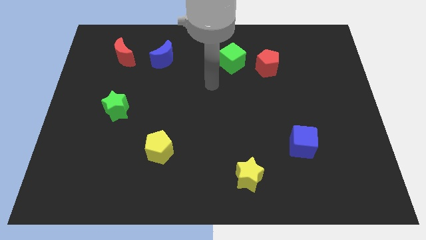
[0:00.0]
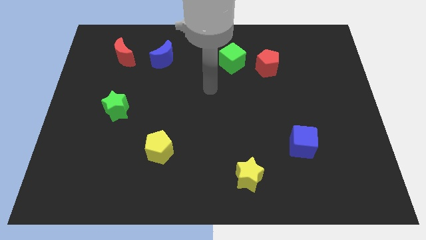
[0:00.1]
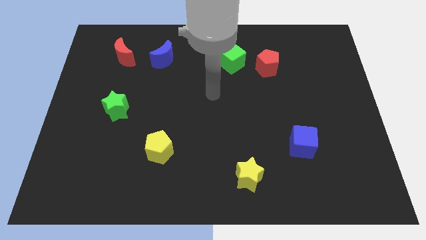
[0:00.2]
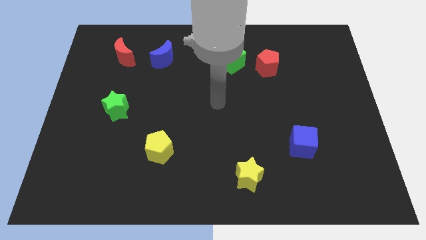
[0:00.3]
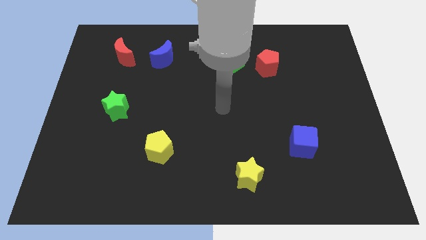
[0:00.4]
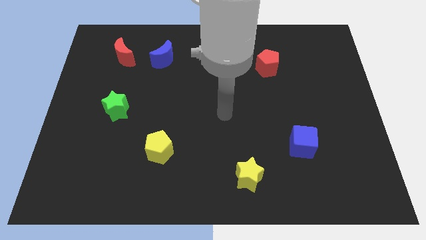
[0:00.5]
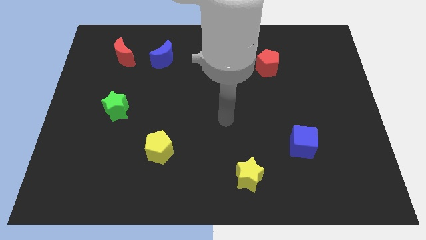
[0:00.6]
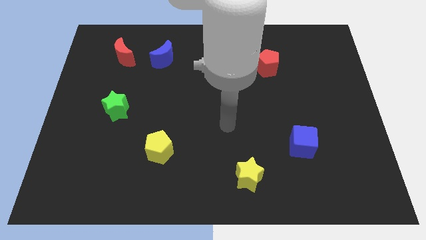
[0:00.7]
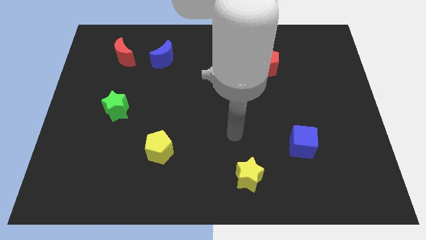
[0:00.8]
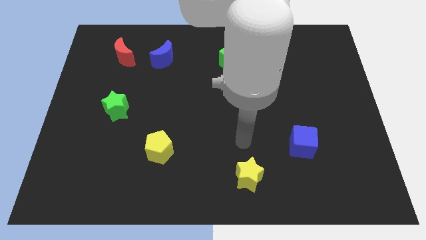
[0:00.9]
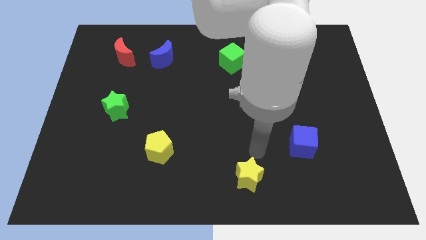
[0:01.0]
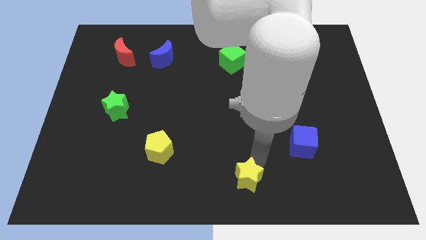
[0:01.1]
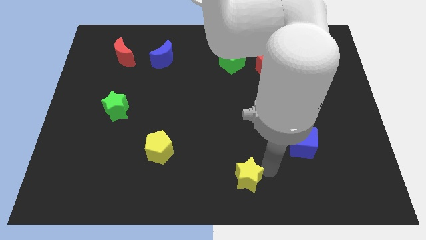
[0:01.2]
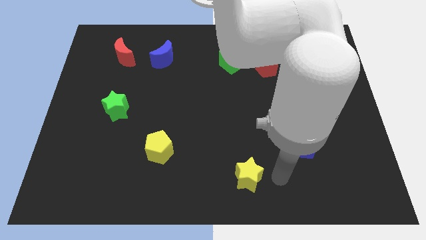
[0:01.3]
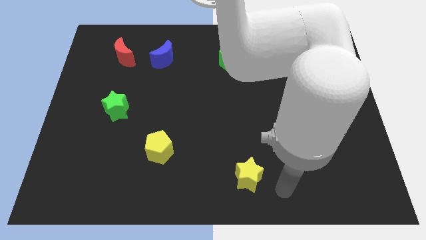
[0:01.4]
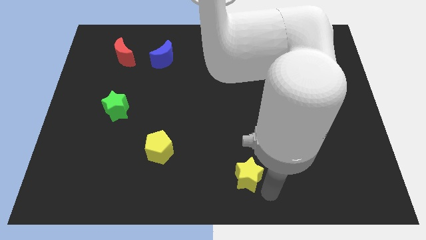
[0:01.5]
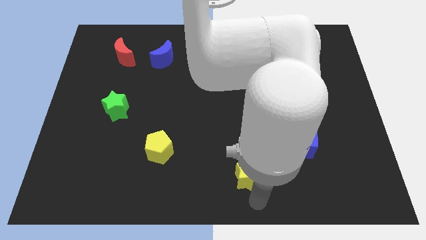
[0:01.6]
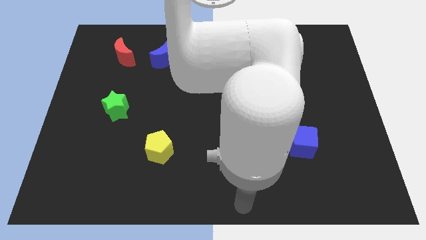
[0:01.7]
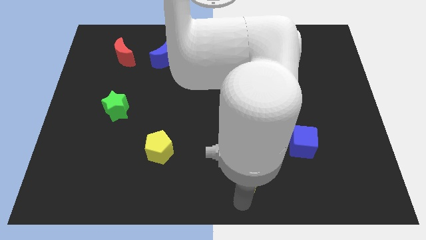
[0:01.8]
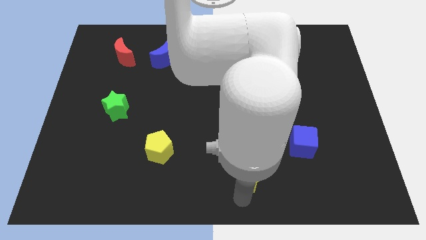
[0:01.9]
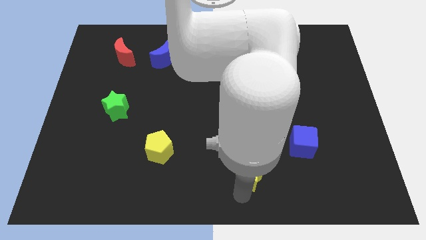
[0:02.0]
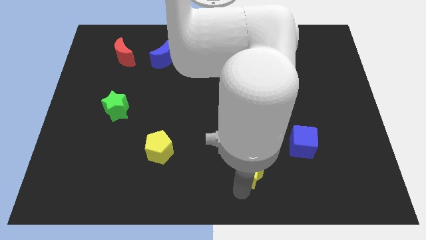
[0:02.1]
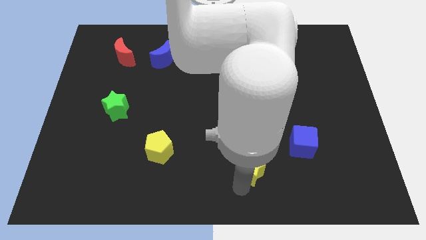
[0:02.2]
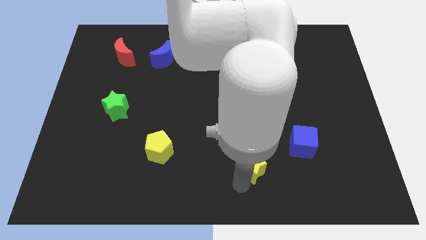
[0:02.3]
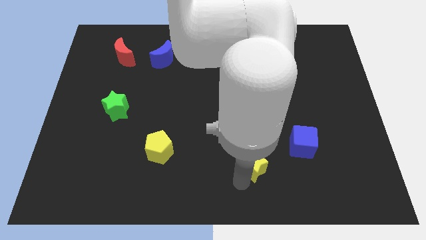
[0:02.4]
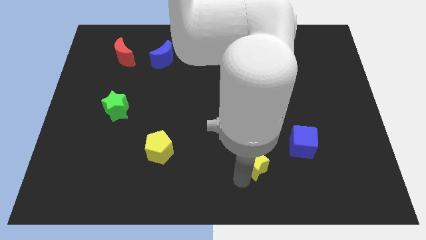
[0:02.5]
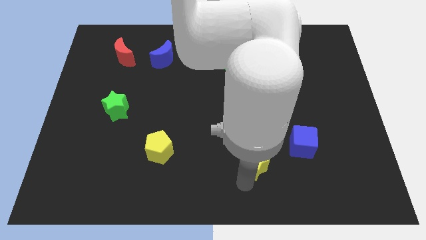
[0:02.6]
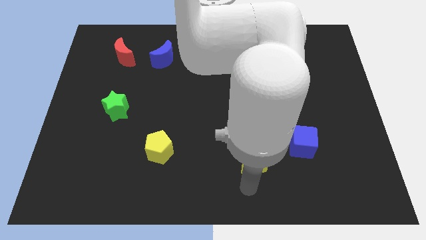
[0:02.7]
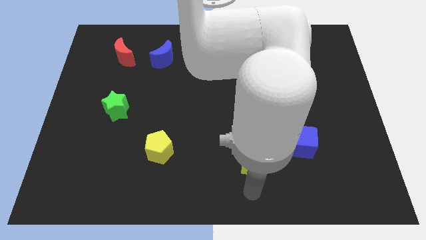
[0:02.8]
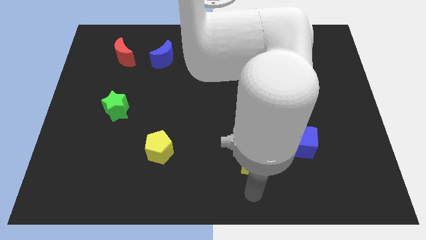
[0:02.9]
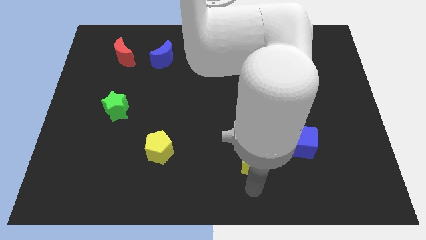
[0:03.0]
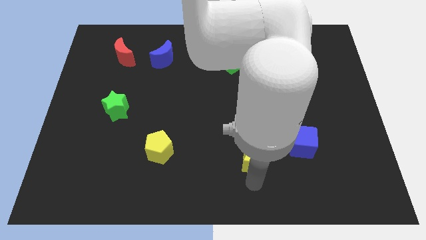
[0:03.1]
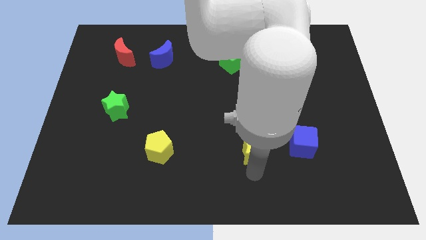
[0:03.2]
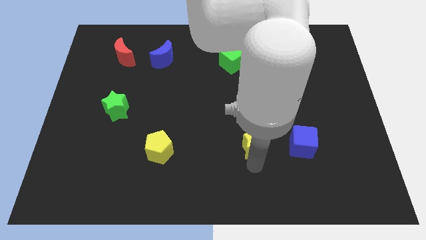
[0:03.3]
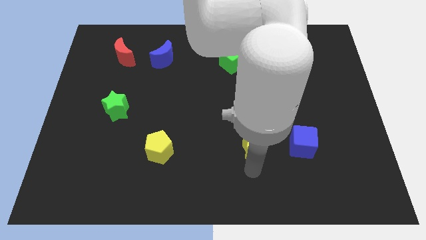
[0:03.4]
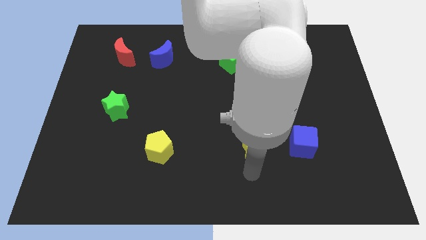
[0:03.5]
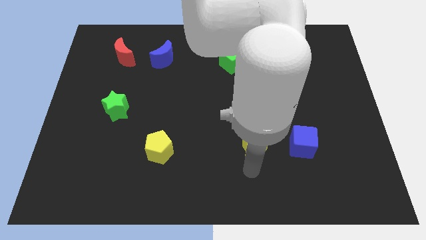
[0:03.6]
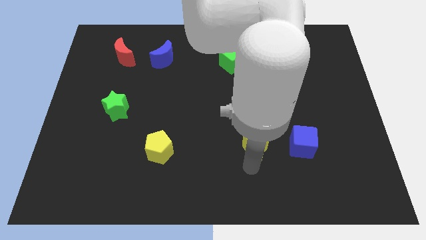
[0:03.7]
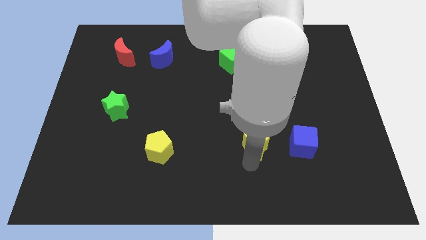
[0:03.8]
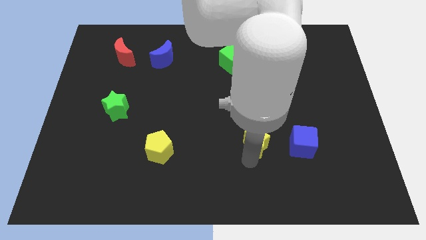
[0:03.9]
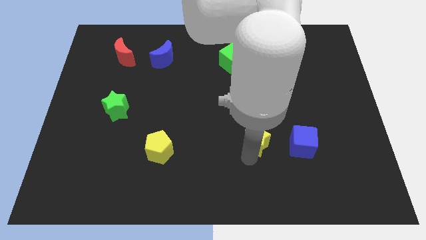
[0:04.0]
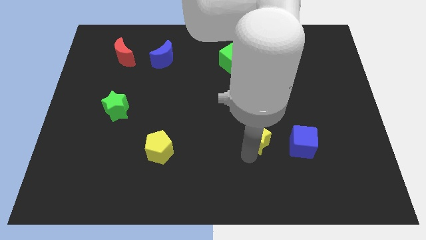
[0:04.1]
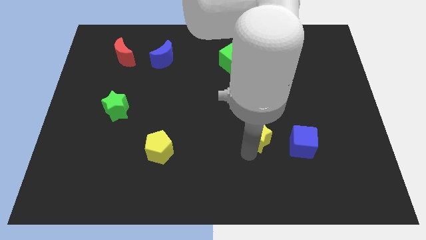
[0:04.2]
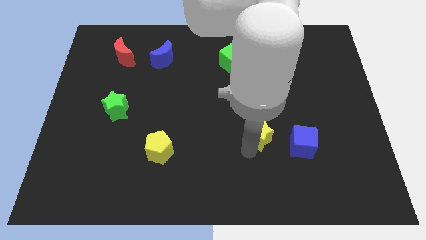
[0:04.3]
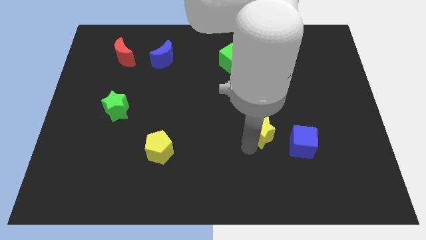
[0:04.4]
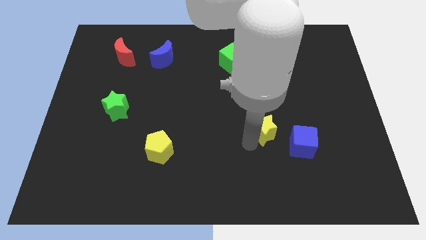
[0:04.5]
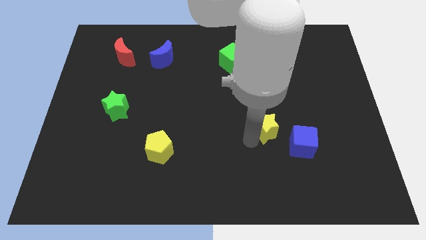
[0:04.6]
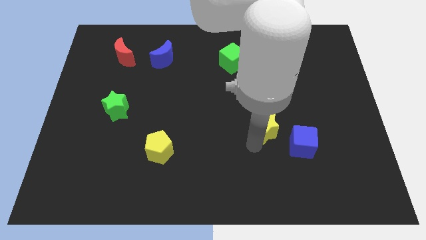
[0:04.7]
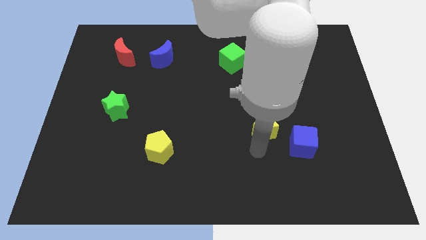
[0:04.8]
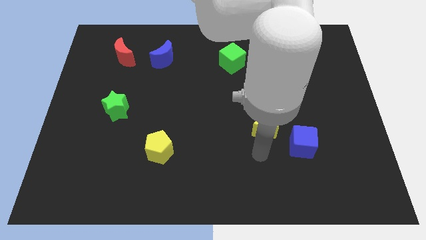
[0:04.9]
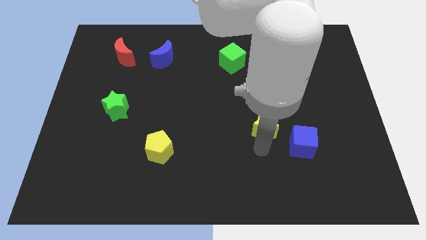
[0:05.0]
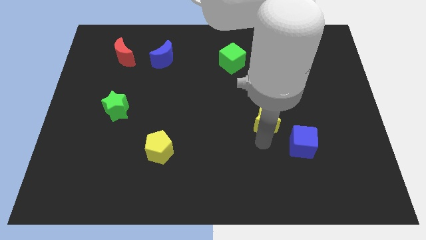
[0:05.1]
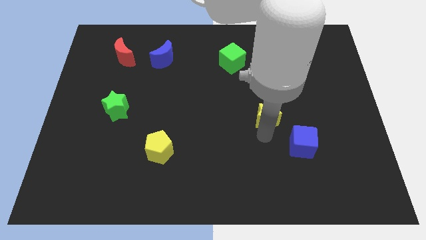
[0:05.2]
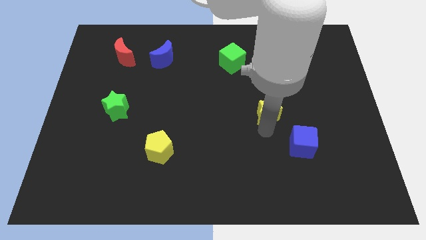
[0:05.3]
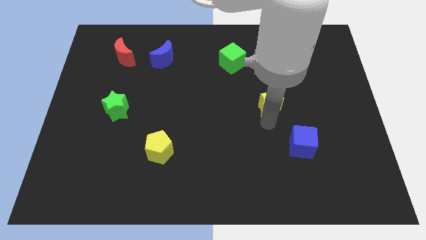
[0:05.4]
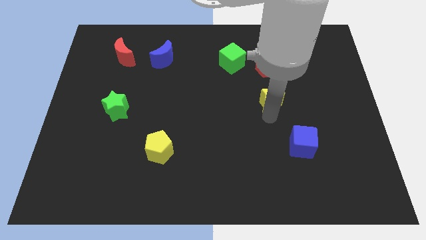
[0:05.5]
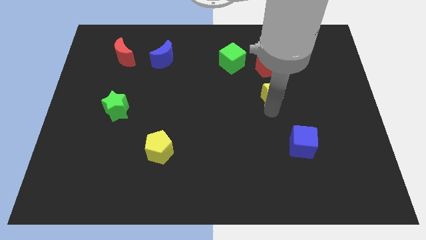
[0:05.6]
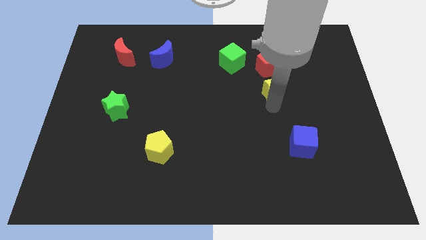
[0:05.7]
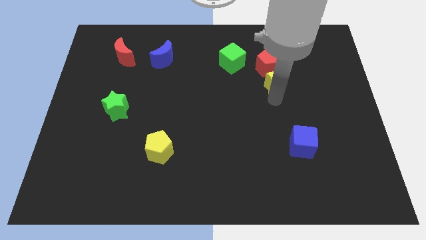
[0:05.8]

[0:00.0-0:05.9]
push the yellow star next to the red pentagon

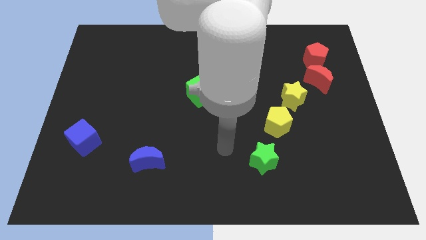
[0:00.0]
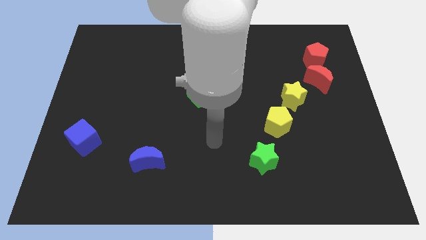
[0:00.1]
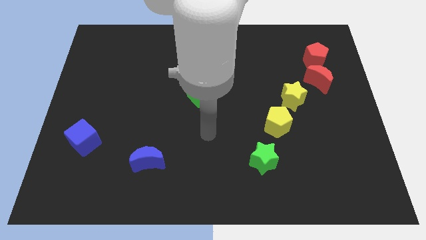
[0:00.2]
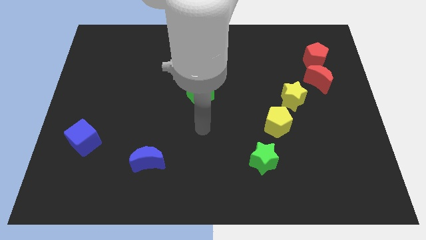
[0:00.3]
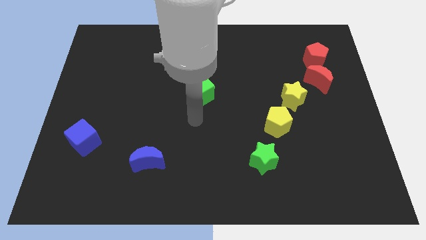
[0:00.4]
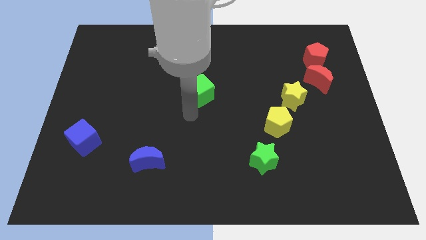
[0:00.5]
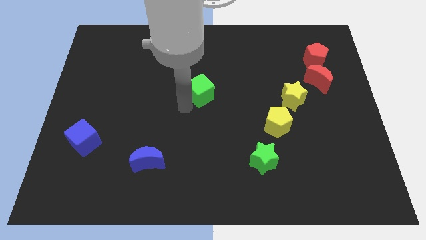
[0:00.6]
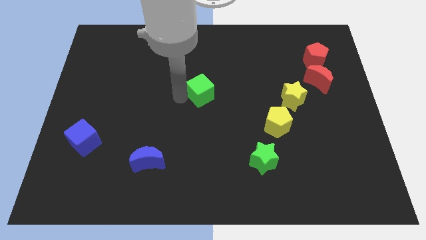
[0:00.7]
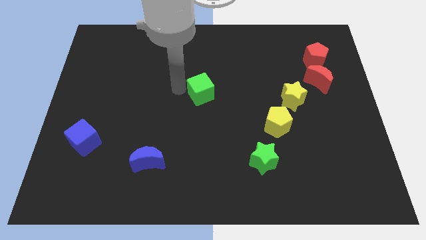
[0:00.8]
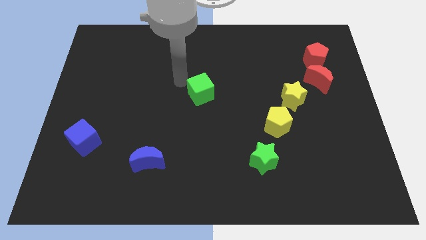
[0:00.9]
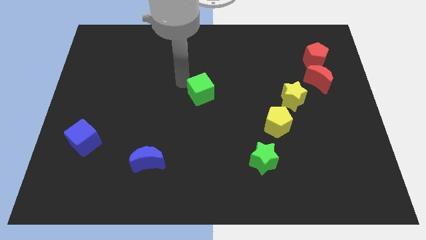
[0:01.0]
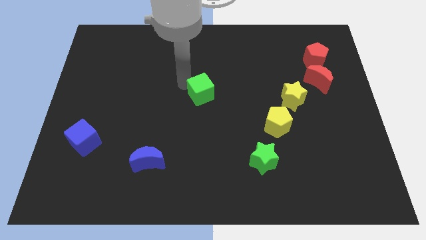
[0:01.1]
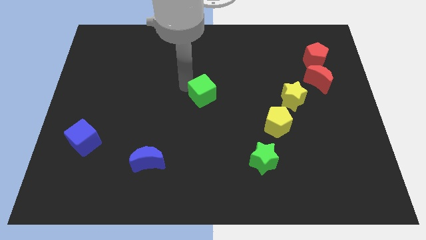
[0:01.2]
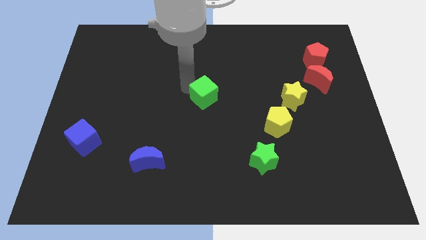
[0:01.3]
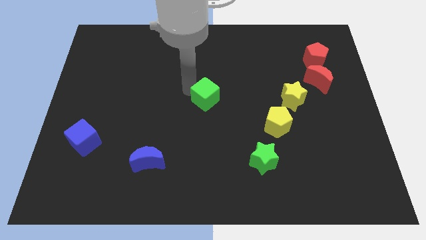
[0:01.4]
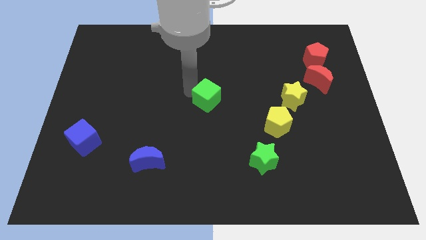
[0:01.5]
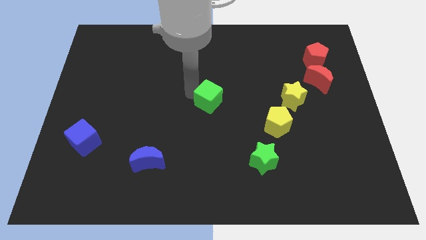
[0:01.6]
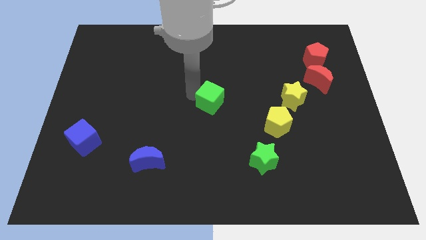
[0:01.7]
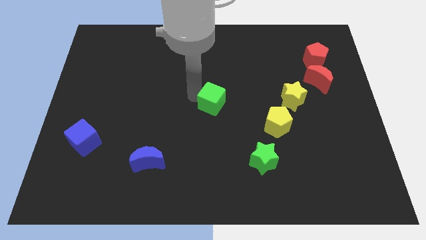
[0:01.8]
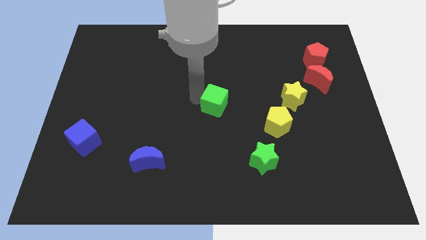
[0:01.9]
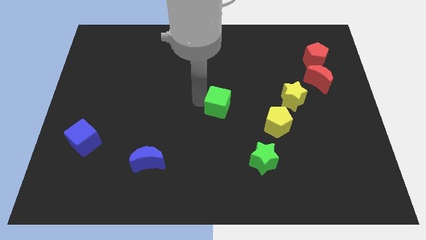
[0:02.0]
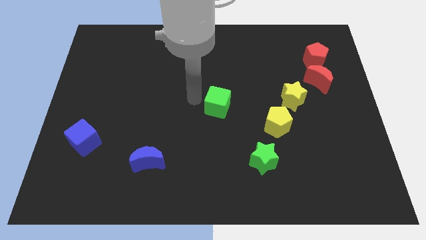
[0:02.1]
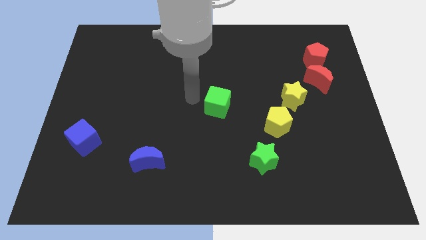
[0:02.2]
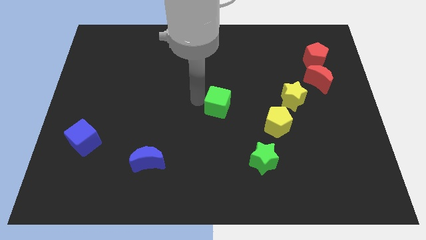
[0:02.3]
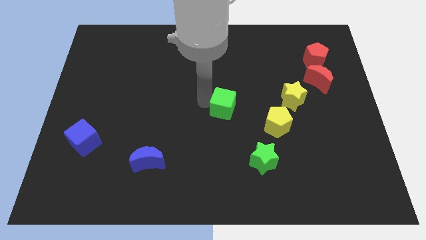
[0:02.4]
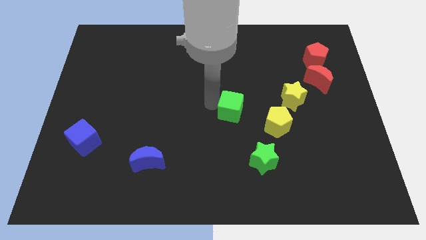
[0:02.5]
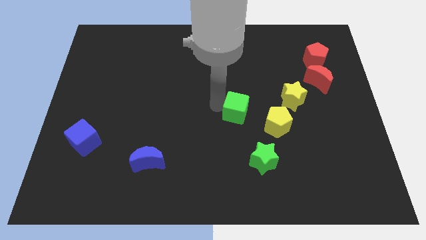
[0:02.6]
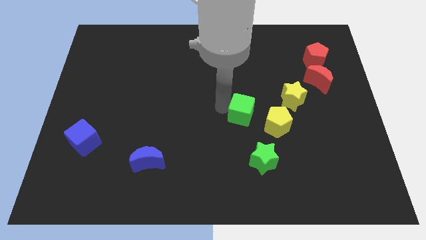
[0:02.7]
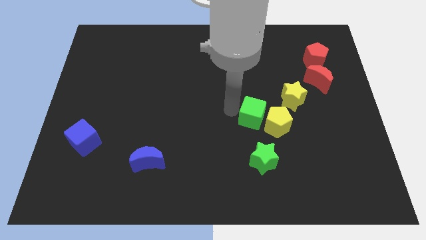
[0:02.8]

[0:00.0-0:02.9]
push the green cube towards the yellow pentagon
